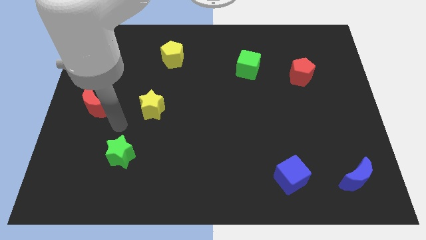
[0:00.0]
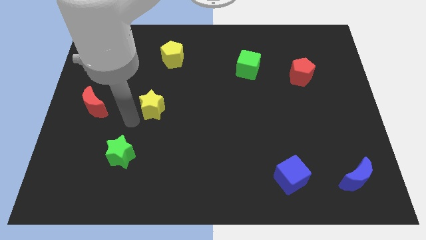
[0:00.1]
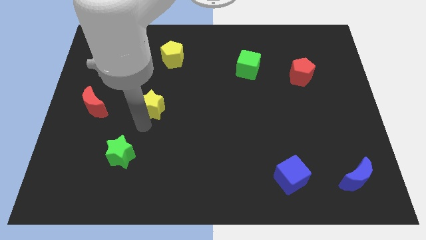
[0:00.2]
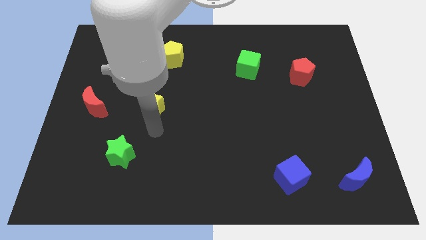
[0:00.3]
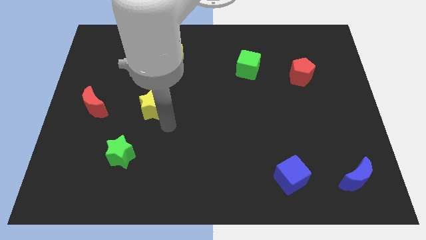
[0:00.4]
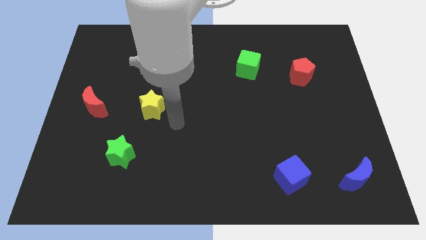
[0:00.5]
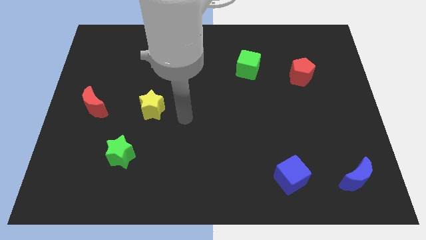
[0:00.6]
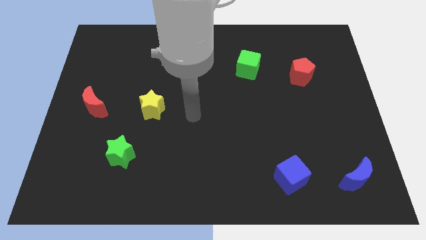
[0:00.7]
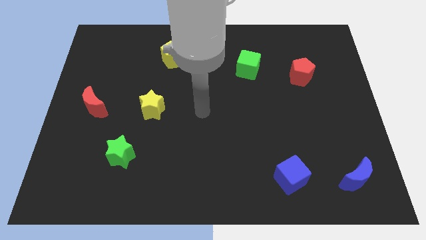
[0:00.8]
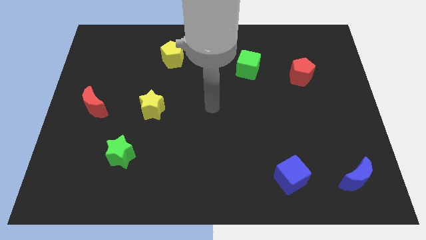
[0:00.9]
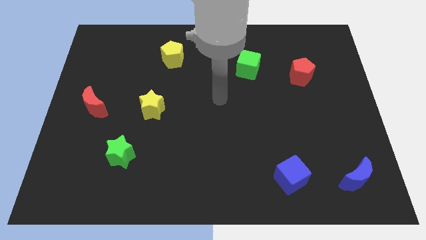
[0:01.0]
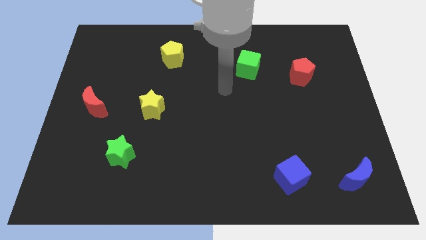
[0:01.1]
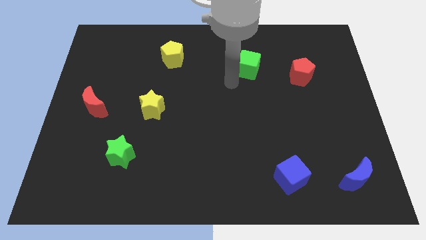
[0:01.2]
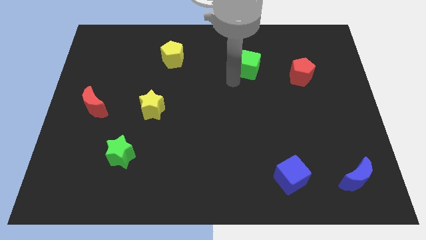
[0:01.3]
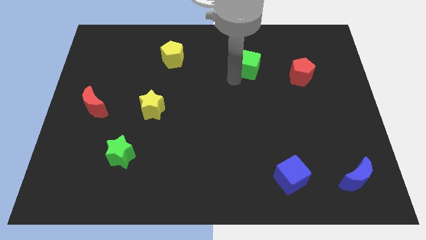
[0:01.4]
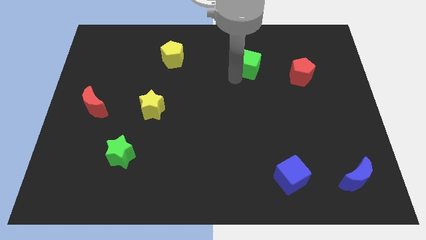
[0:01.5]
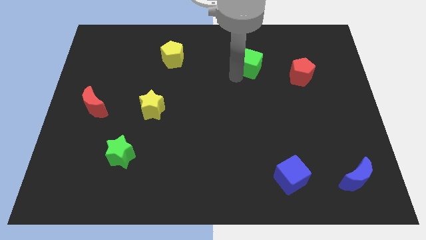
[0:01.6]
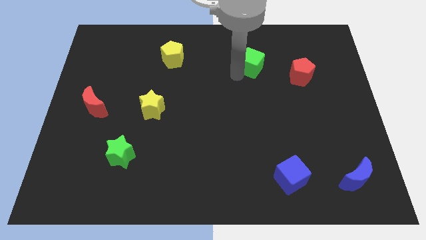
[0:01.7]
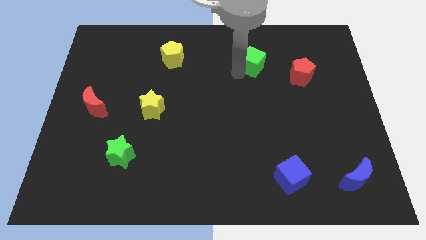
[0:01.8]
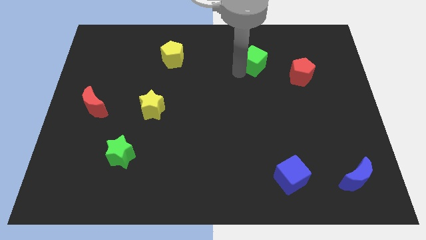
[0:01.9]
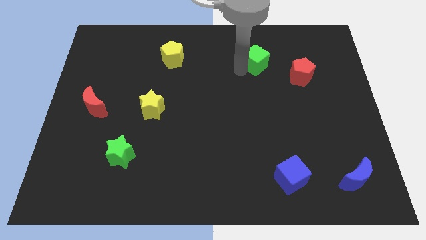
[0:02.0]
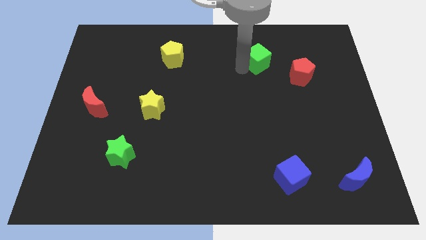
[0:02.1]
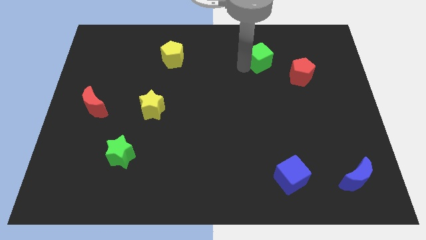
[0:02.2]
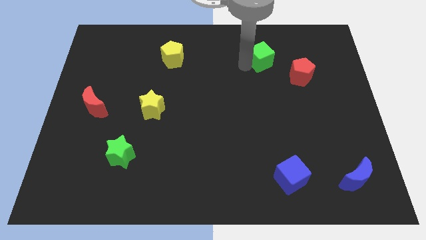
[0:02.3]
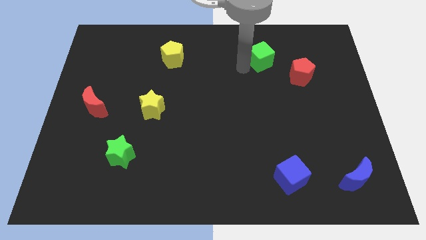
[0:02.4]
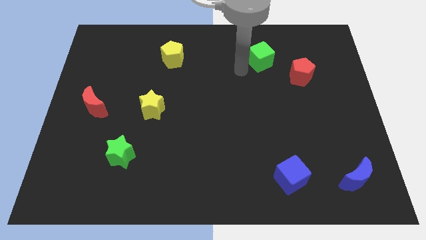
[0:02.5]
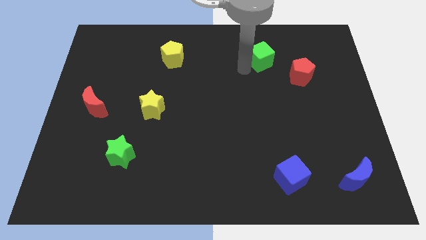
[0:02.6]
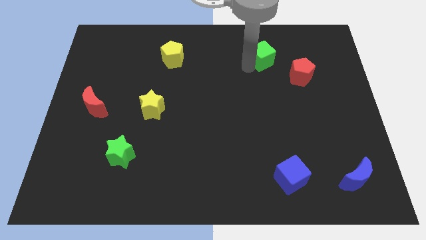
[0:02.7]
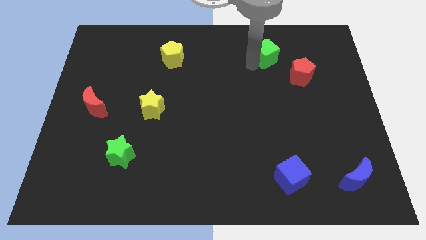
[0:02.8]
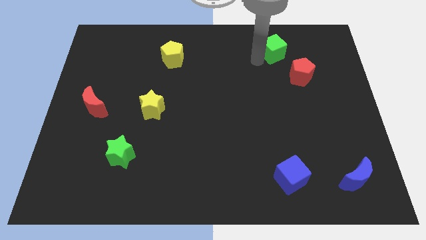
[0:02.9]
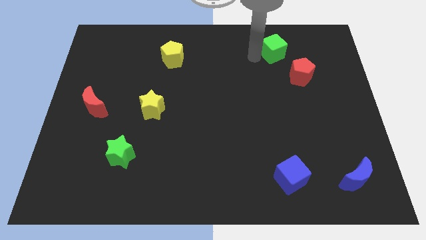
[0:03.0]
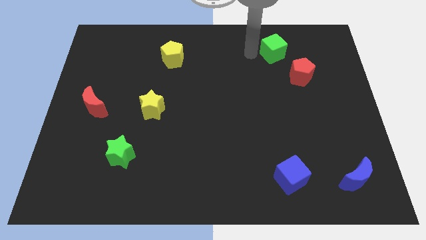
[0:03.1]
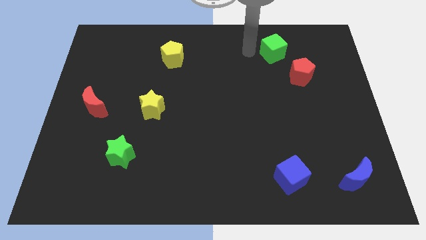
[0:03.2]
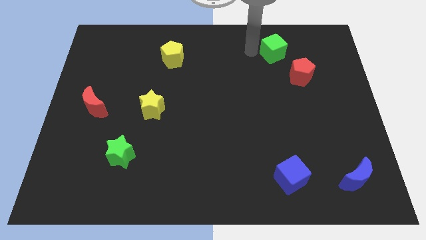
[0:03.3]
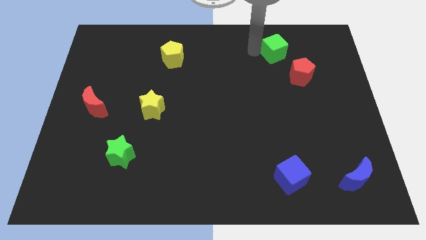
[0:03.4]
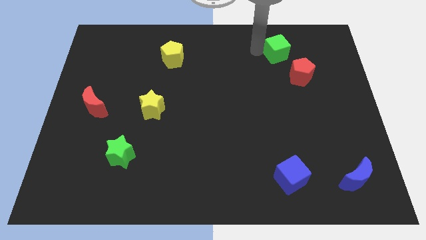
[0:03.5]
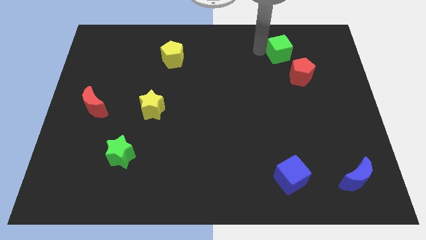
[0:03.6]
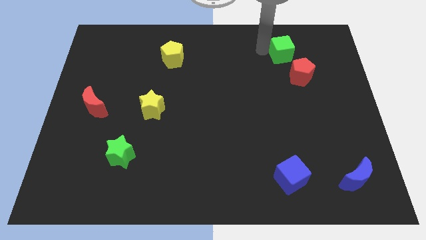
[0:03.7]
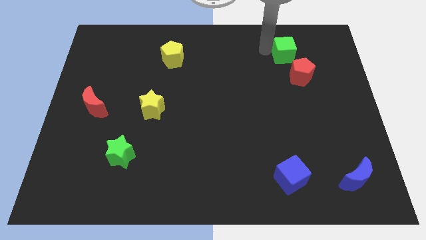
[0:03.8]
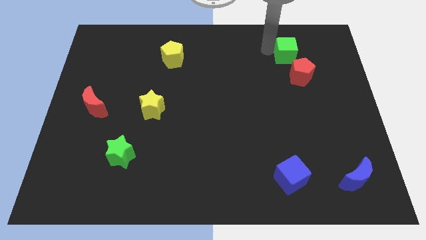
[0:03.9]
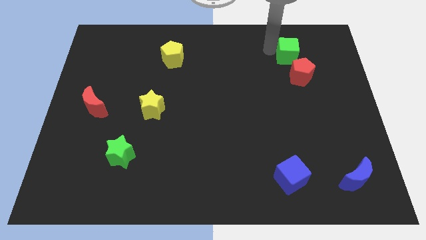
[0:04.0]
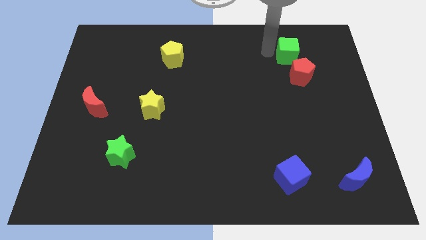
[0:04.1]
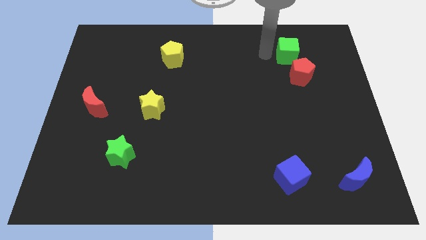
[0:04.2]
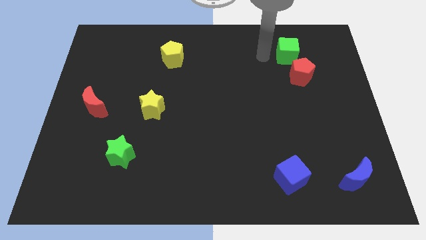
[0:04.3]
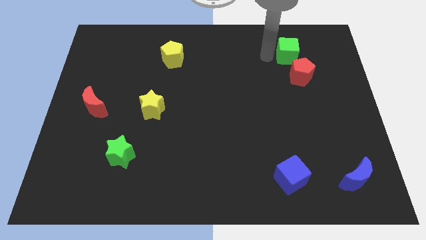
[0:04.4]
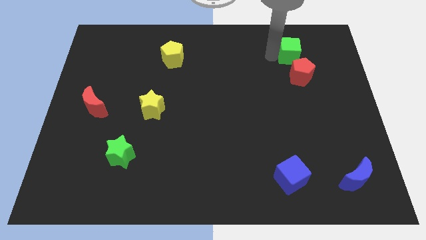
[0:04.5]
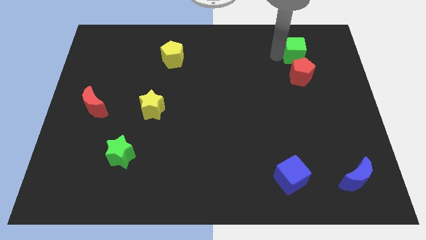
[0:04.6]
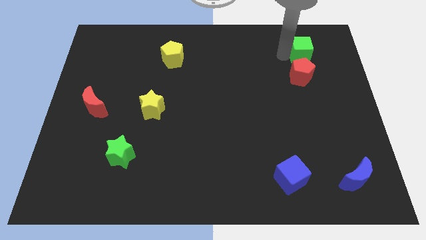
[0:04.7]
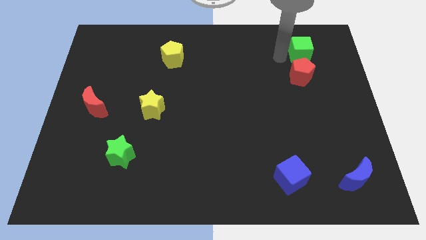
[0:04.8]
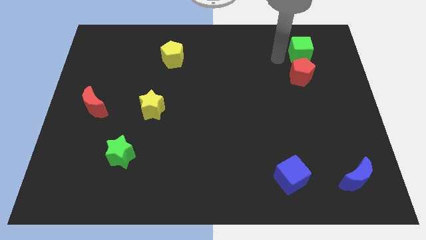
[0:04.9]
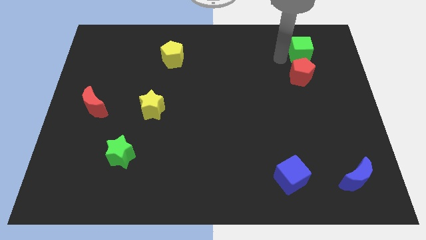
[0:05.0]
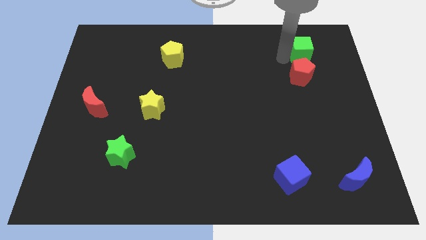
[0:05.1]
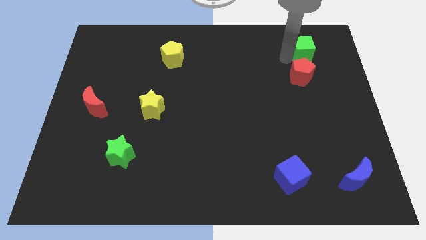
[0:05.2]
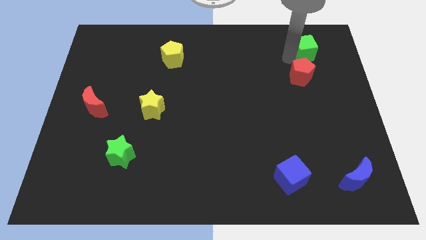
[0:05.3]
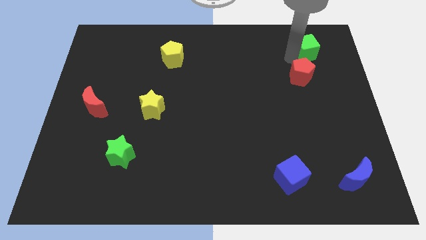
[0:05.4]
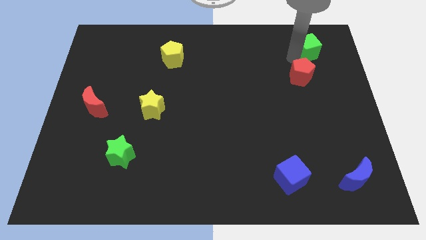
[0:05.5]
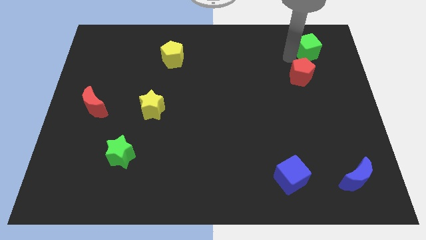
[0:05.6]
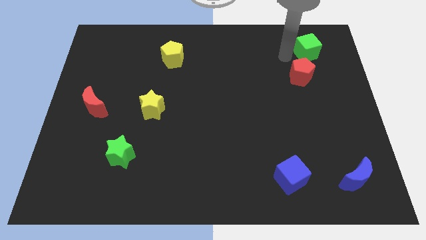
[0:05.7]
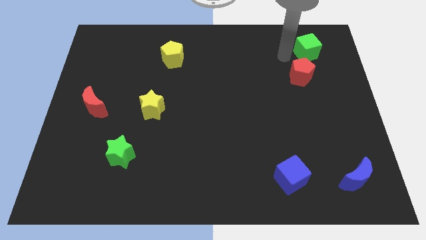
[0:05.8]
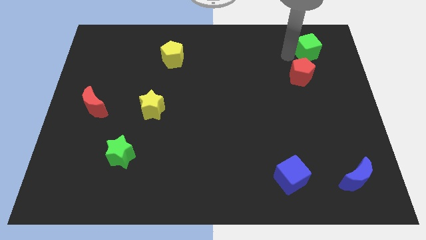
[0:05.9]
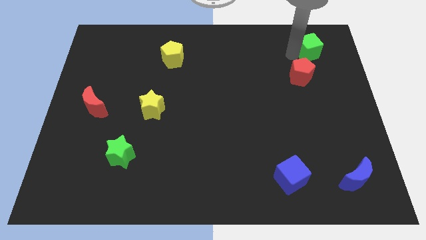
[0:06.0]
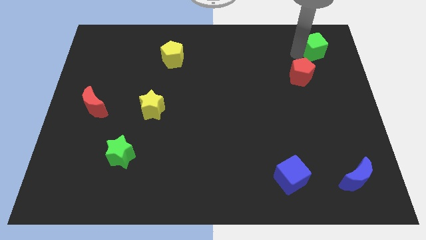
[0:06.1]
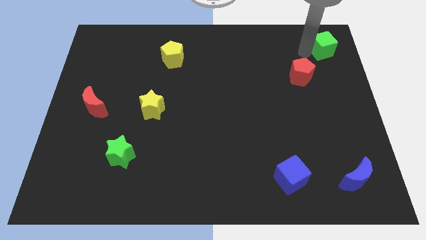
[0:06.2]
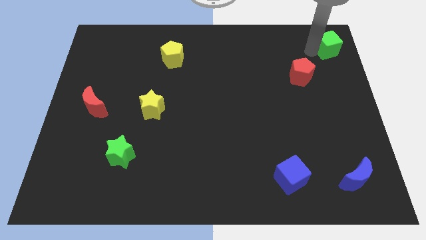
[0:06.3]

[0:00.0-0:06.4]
move the green cube to the upper right corner
